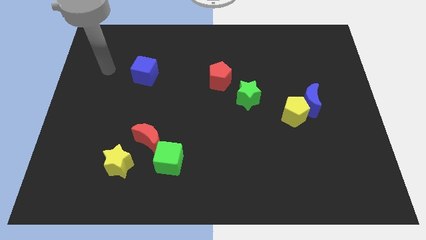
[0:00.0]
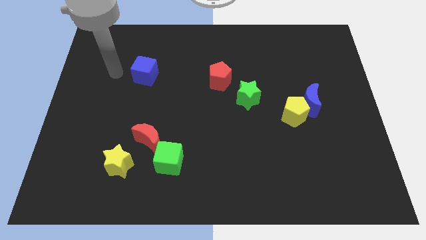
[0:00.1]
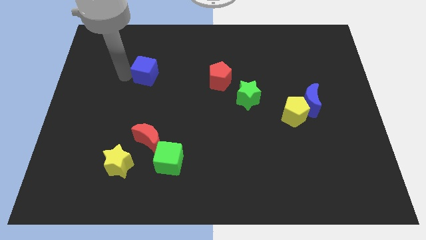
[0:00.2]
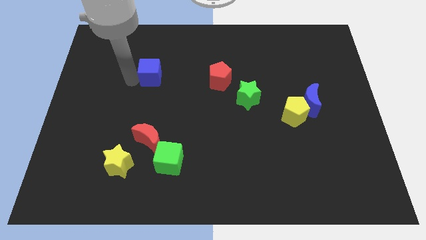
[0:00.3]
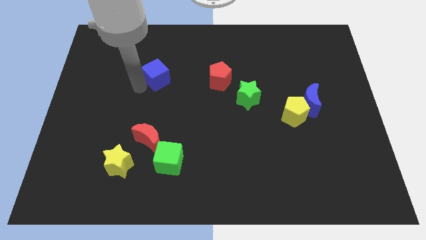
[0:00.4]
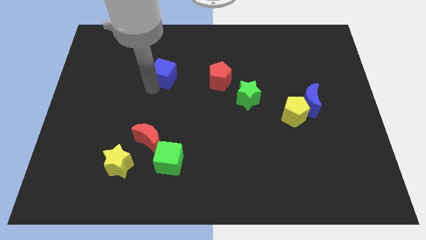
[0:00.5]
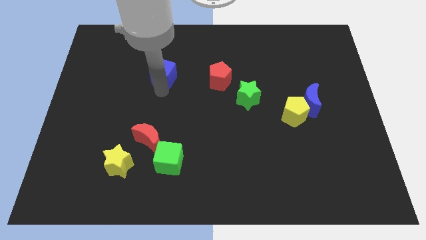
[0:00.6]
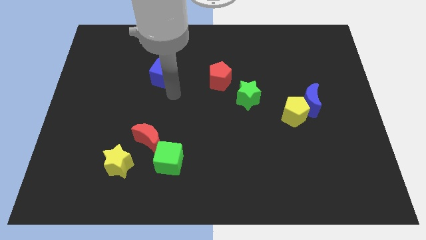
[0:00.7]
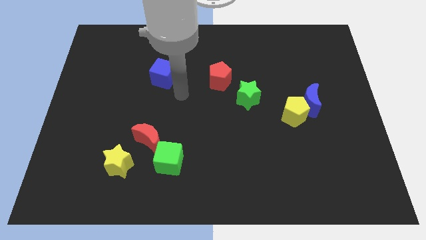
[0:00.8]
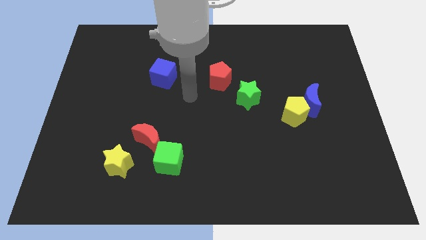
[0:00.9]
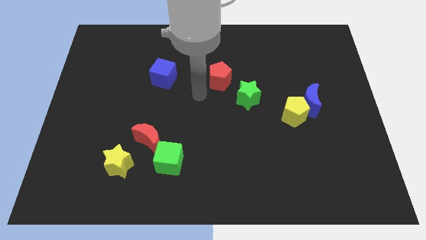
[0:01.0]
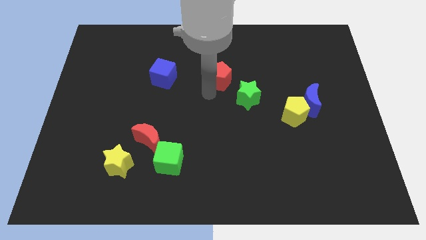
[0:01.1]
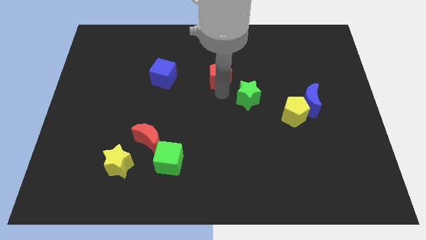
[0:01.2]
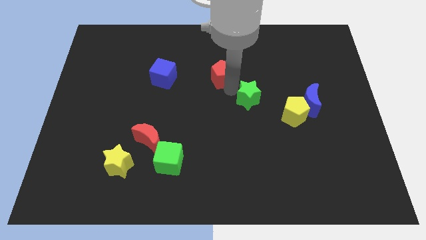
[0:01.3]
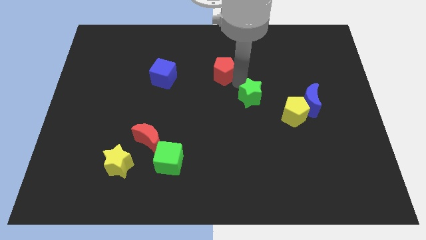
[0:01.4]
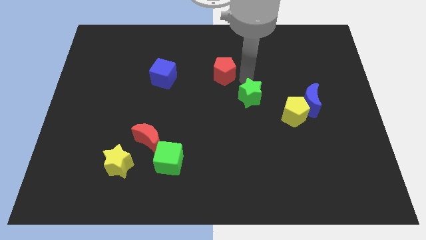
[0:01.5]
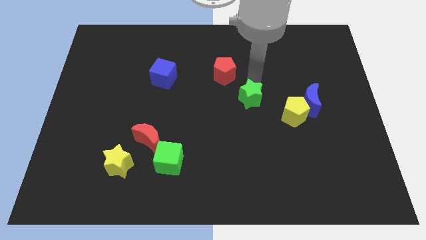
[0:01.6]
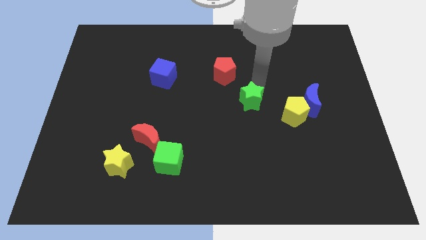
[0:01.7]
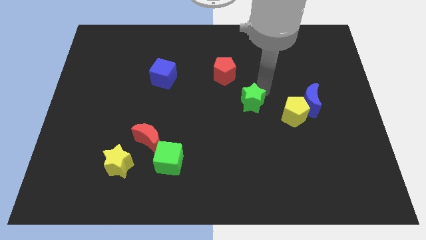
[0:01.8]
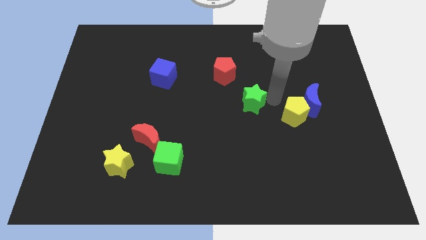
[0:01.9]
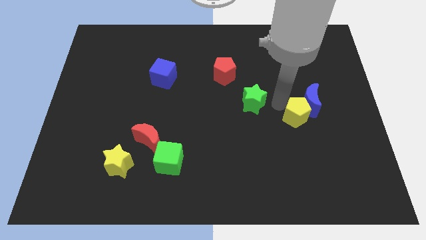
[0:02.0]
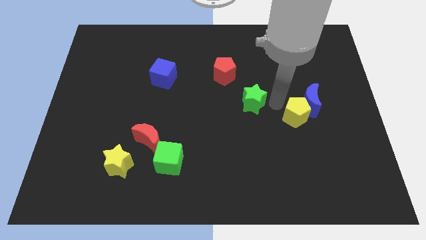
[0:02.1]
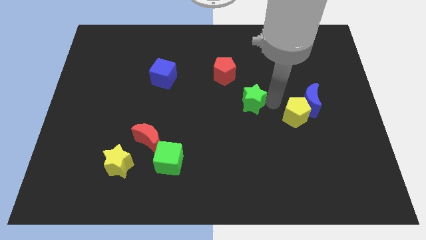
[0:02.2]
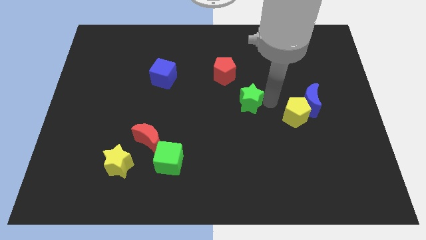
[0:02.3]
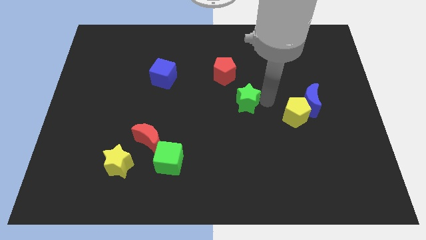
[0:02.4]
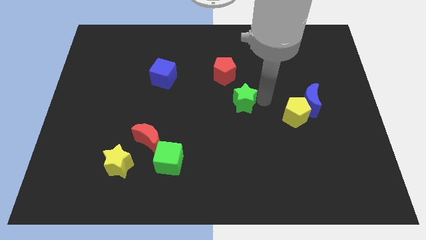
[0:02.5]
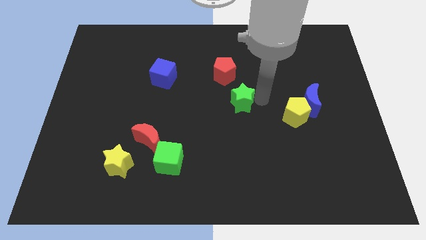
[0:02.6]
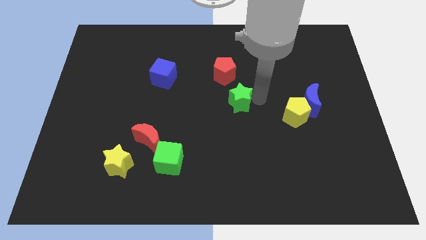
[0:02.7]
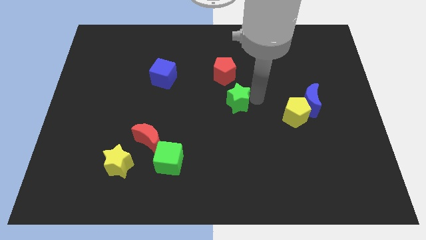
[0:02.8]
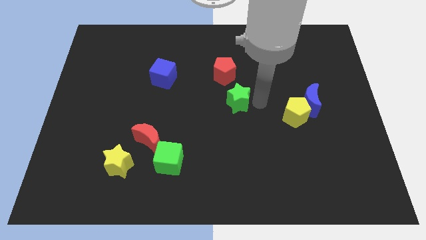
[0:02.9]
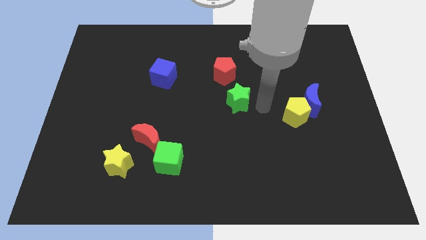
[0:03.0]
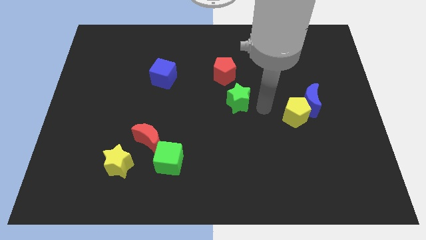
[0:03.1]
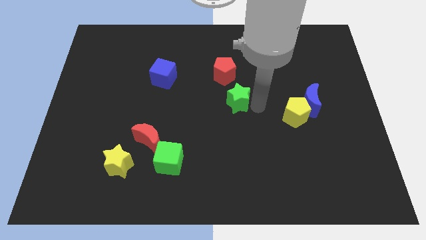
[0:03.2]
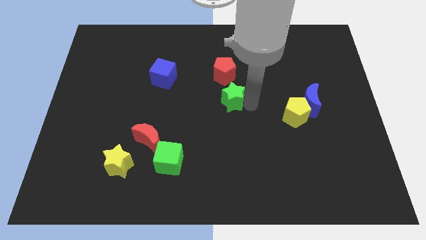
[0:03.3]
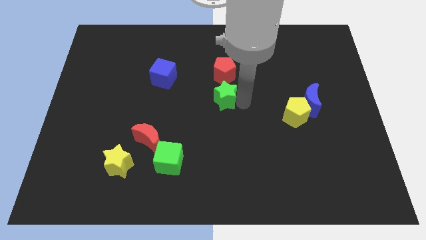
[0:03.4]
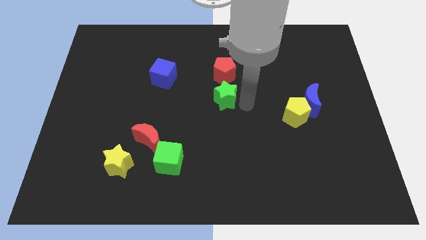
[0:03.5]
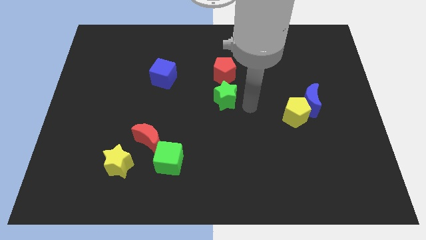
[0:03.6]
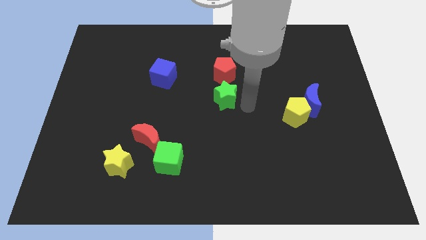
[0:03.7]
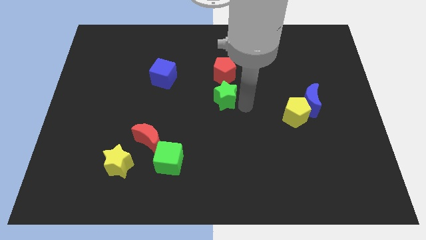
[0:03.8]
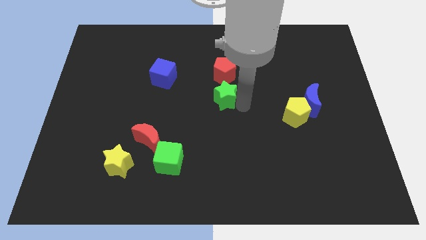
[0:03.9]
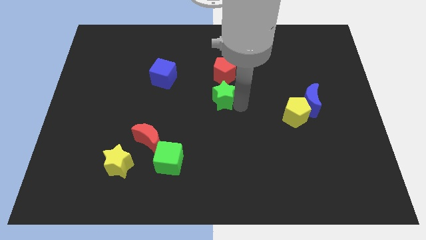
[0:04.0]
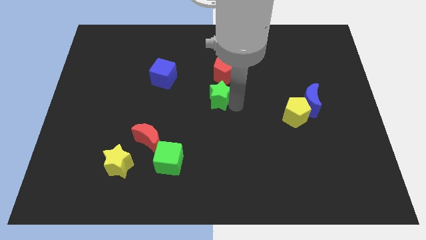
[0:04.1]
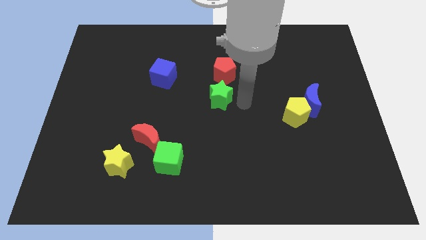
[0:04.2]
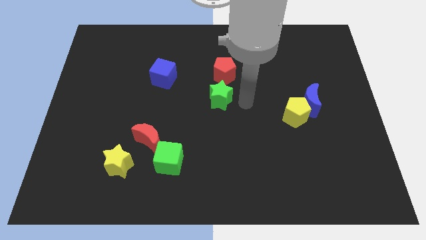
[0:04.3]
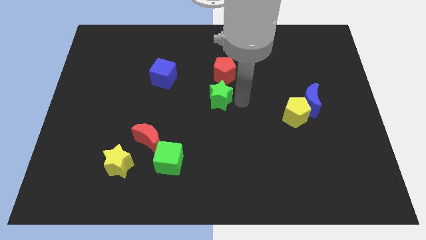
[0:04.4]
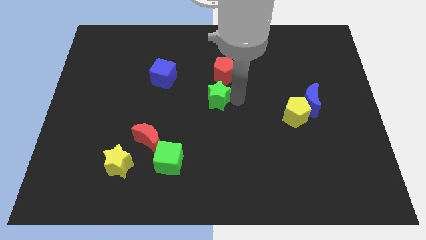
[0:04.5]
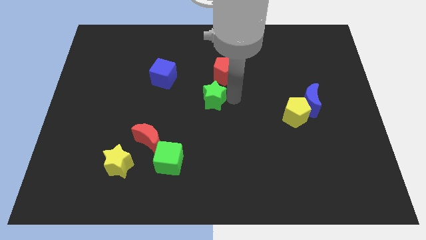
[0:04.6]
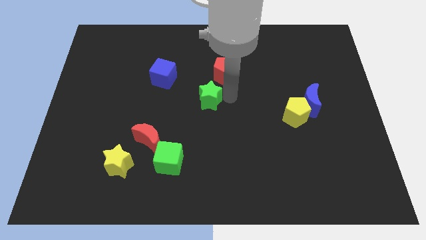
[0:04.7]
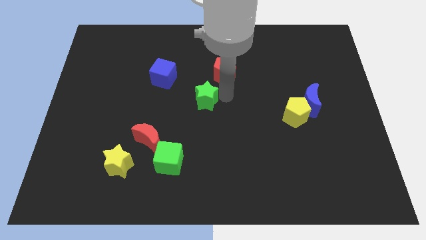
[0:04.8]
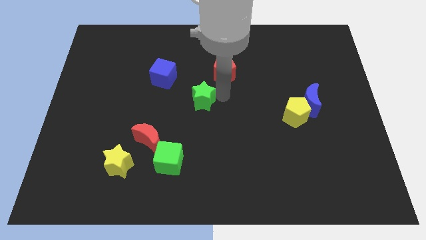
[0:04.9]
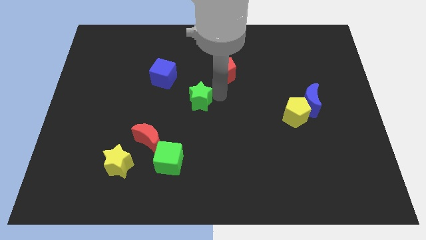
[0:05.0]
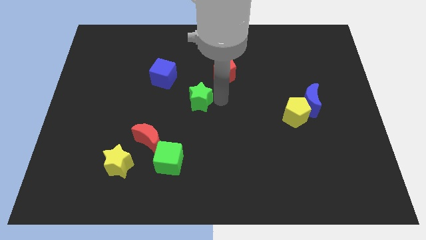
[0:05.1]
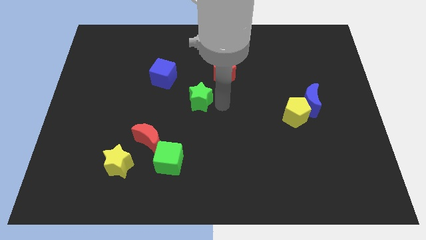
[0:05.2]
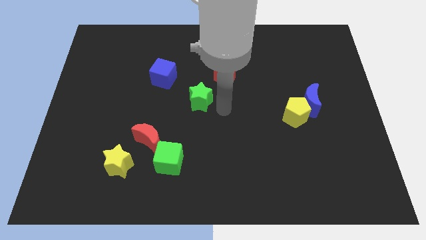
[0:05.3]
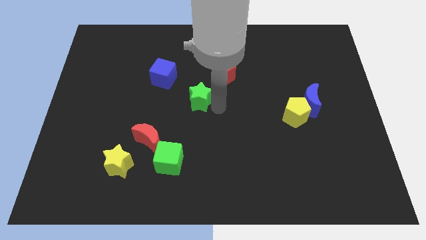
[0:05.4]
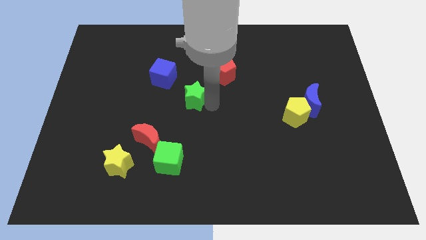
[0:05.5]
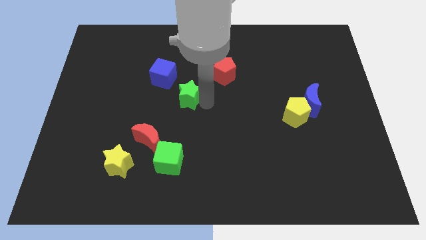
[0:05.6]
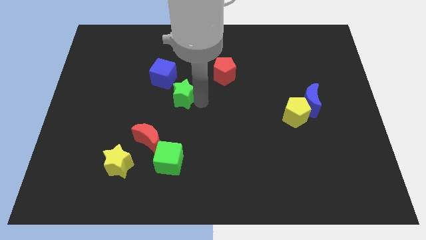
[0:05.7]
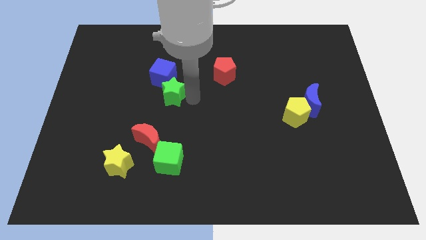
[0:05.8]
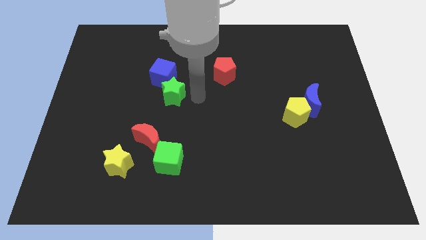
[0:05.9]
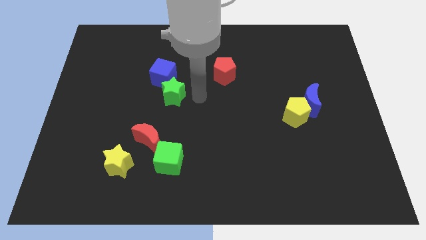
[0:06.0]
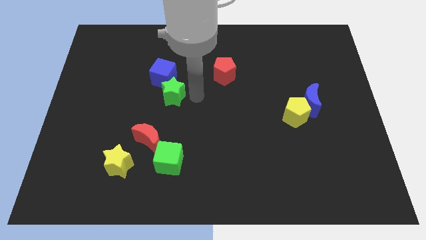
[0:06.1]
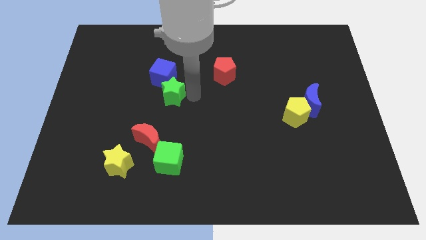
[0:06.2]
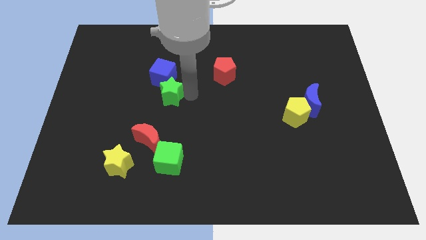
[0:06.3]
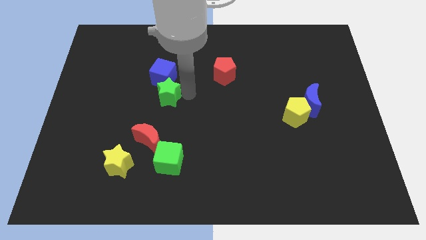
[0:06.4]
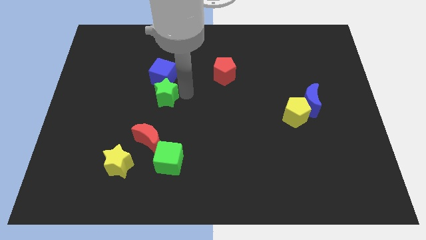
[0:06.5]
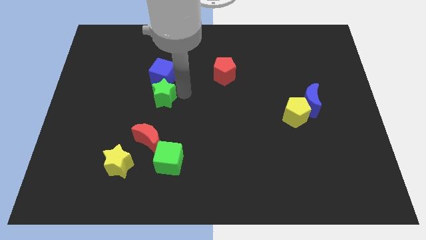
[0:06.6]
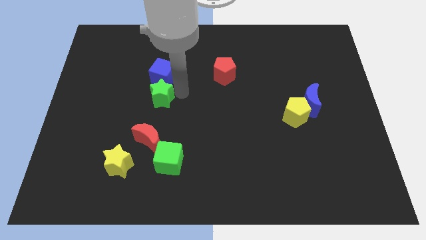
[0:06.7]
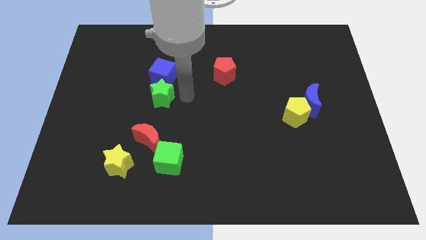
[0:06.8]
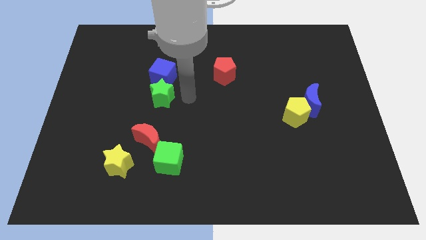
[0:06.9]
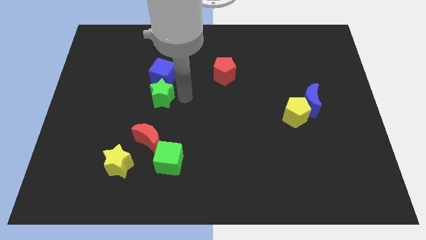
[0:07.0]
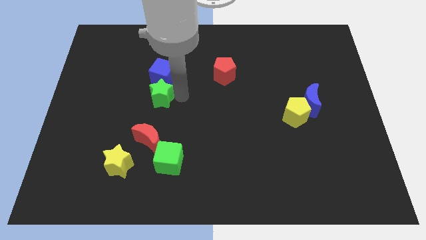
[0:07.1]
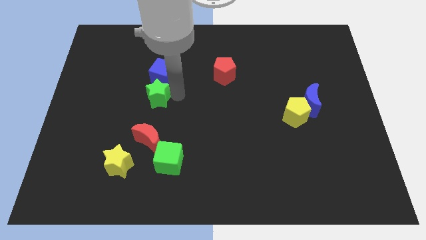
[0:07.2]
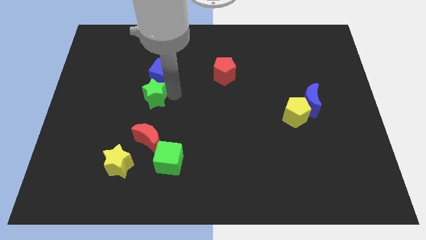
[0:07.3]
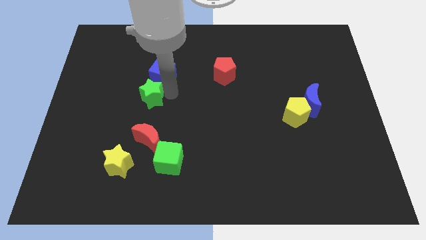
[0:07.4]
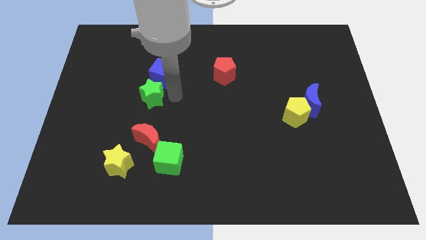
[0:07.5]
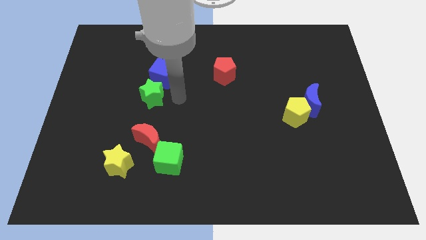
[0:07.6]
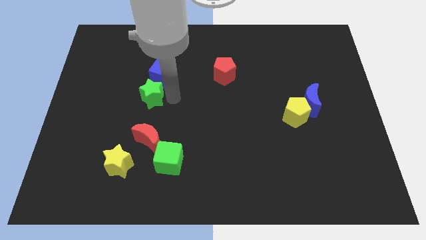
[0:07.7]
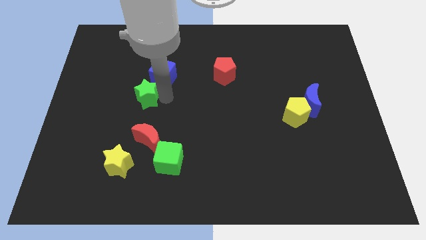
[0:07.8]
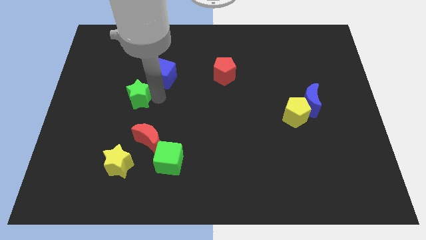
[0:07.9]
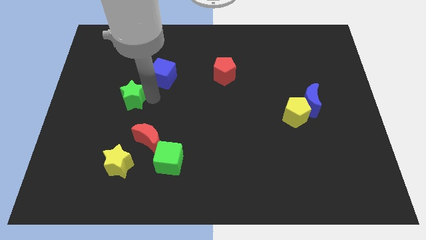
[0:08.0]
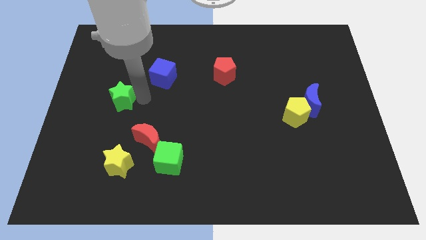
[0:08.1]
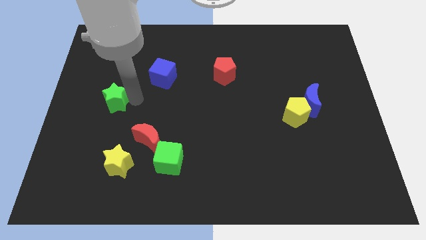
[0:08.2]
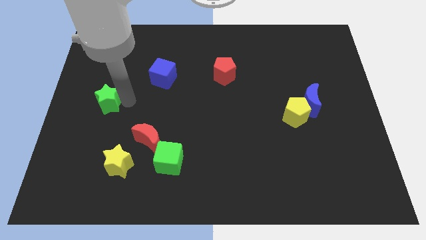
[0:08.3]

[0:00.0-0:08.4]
put the green star to the left side
